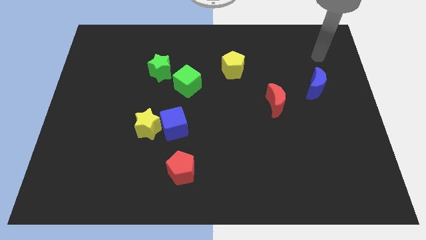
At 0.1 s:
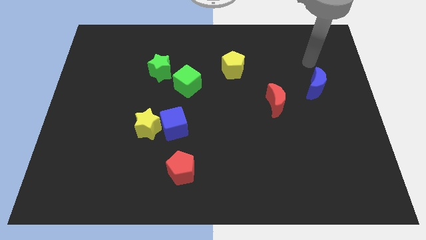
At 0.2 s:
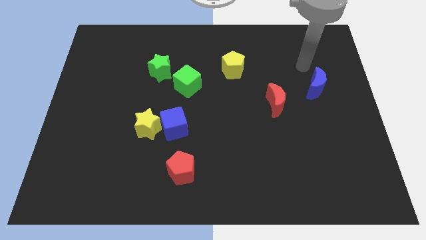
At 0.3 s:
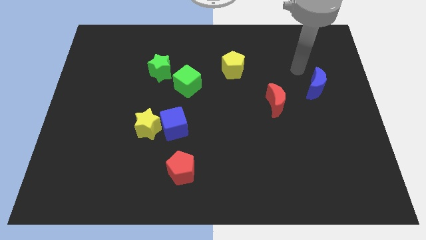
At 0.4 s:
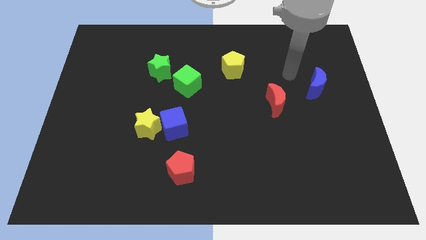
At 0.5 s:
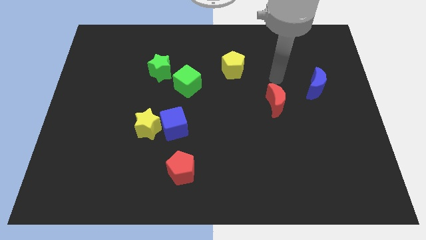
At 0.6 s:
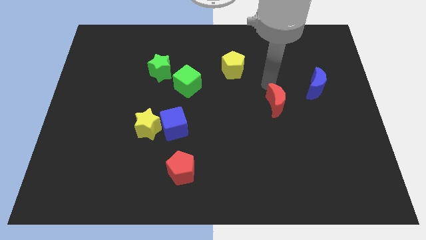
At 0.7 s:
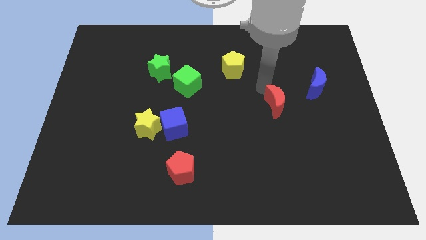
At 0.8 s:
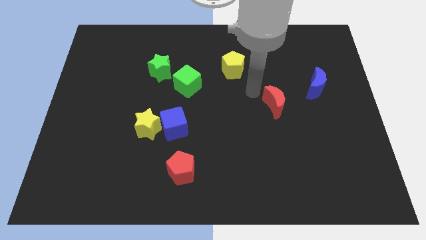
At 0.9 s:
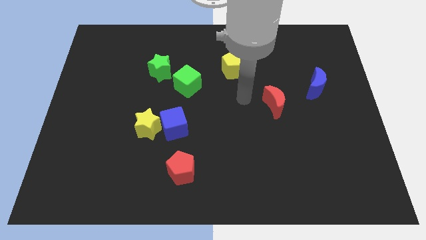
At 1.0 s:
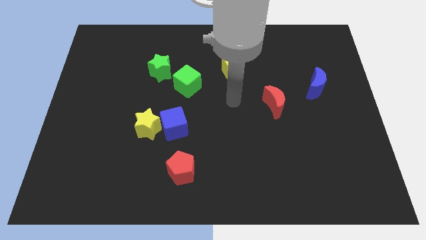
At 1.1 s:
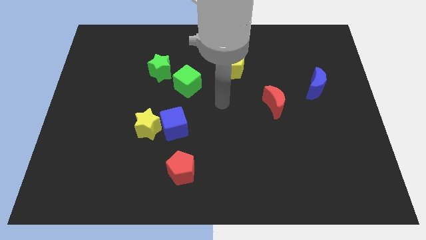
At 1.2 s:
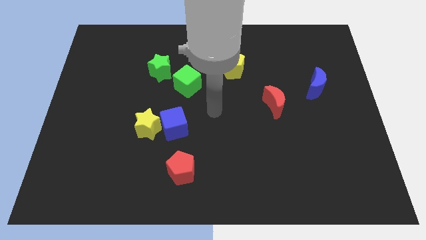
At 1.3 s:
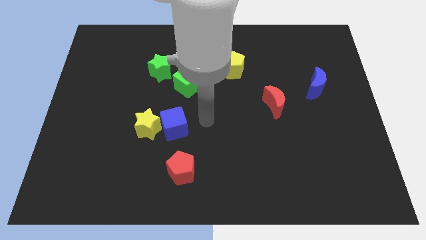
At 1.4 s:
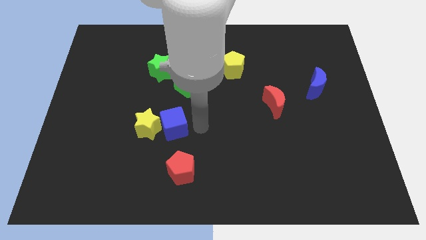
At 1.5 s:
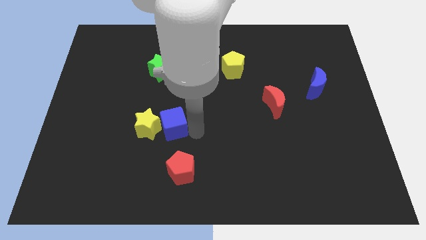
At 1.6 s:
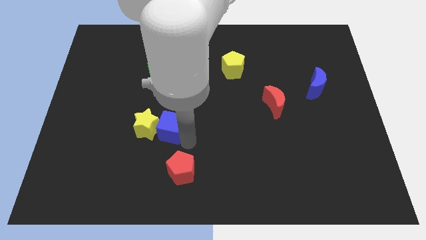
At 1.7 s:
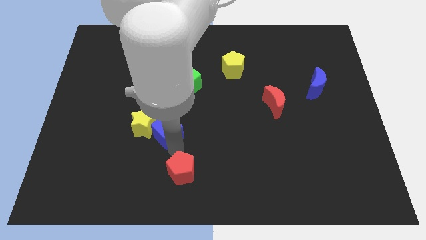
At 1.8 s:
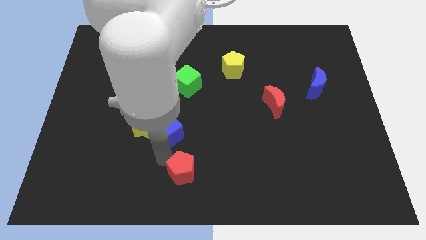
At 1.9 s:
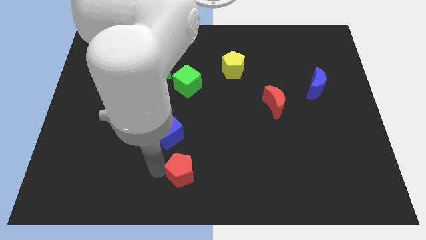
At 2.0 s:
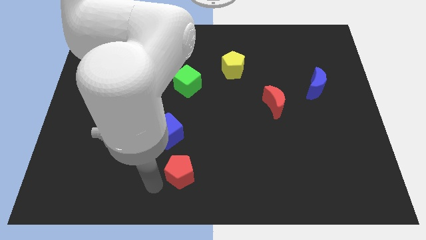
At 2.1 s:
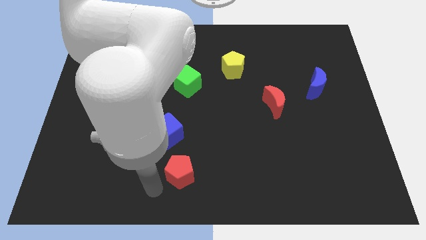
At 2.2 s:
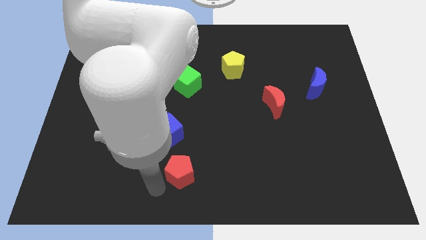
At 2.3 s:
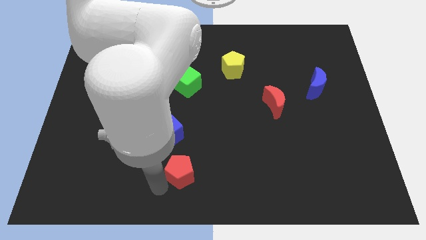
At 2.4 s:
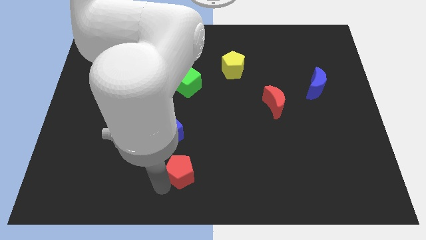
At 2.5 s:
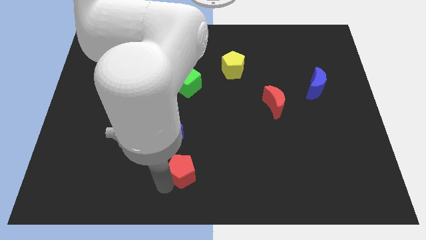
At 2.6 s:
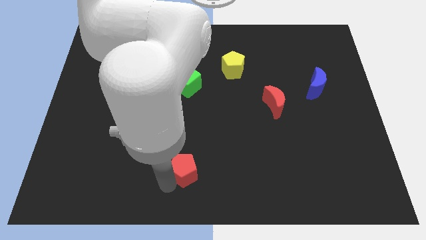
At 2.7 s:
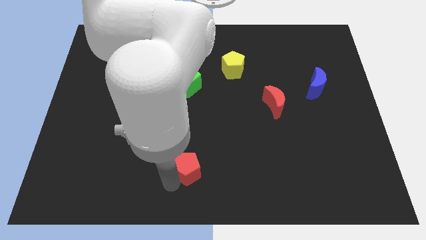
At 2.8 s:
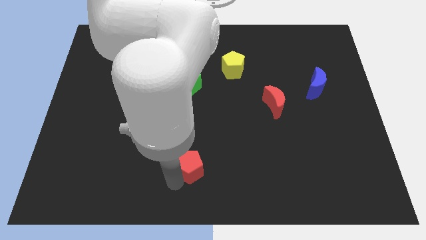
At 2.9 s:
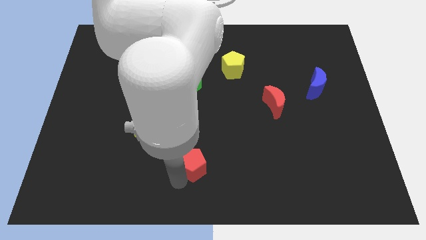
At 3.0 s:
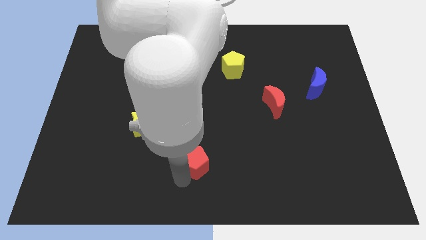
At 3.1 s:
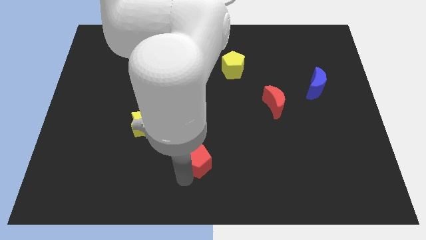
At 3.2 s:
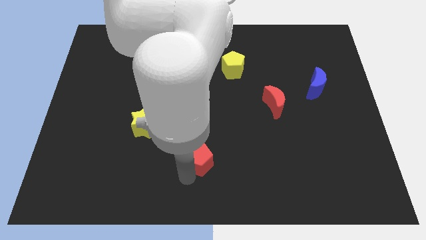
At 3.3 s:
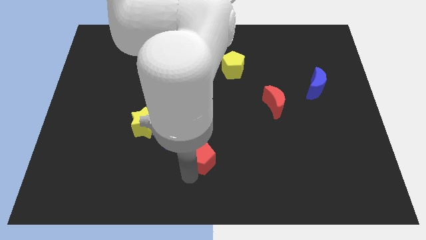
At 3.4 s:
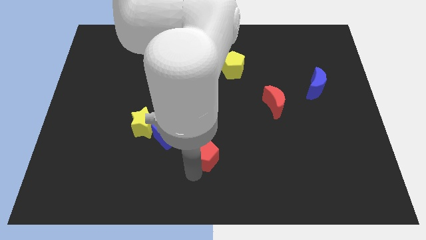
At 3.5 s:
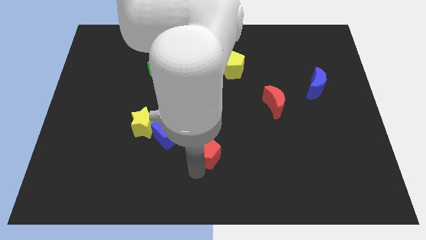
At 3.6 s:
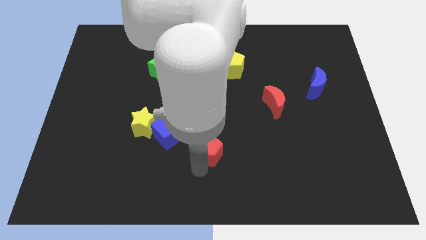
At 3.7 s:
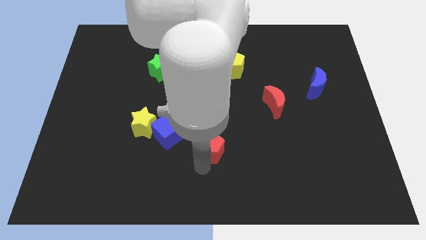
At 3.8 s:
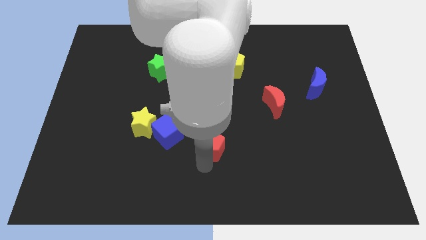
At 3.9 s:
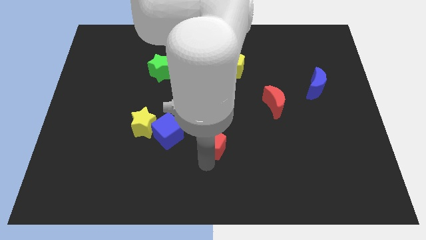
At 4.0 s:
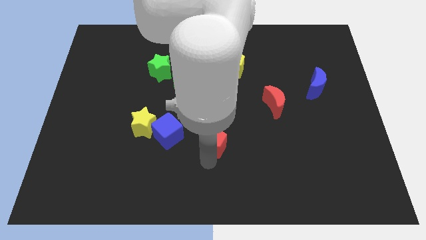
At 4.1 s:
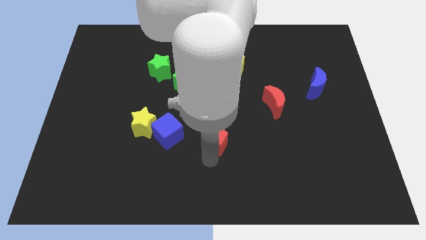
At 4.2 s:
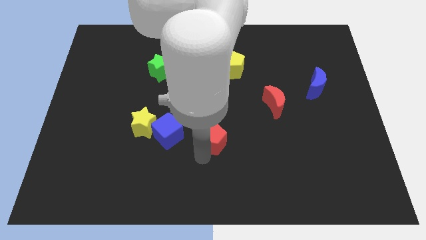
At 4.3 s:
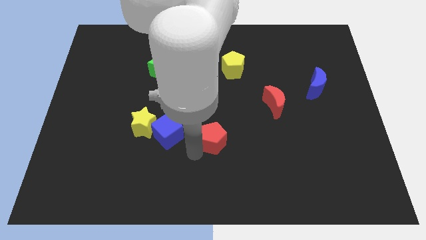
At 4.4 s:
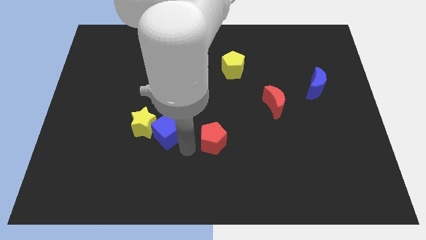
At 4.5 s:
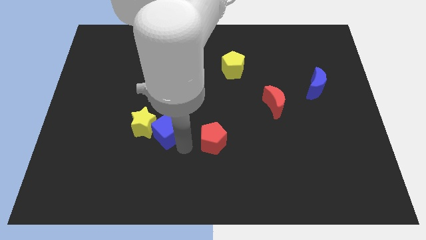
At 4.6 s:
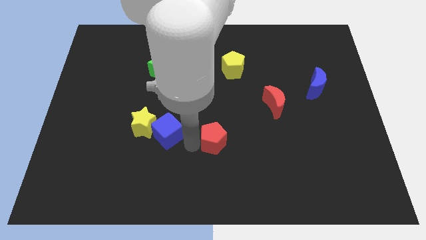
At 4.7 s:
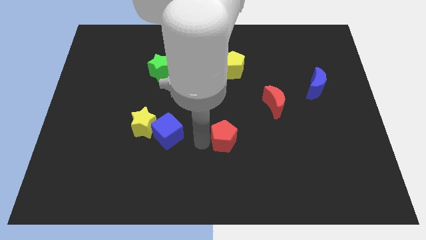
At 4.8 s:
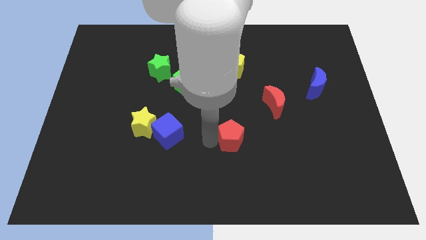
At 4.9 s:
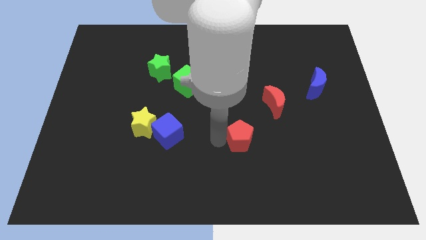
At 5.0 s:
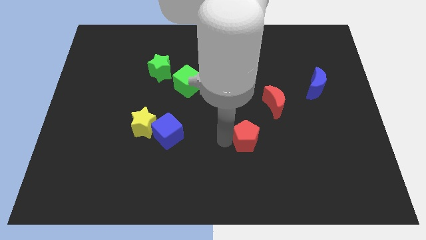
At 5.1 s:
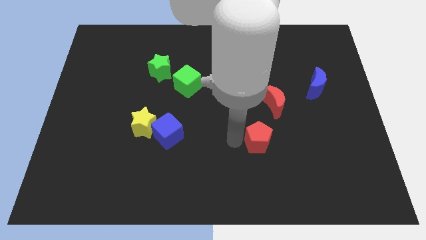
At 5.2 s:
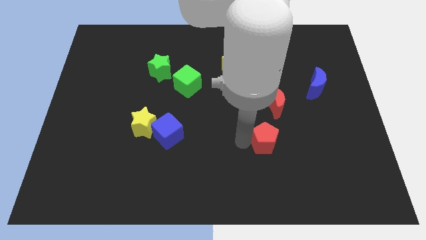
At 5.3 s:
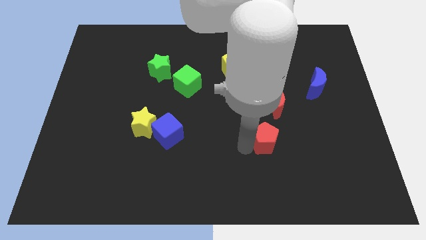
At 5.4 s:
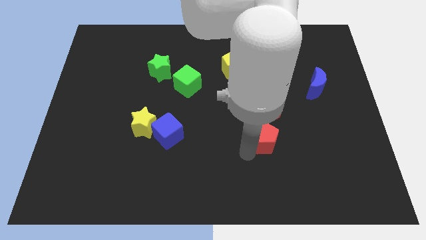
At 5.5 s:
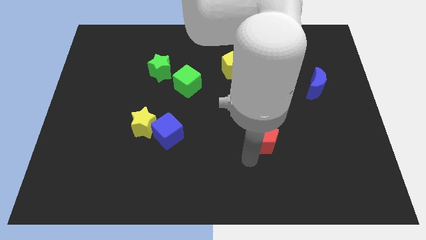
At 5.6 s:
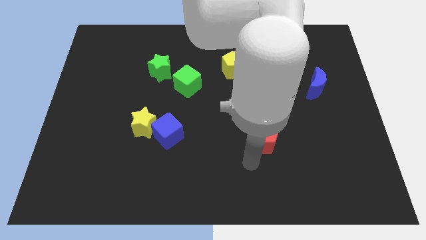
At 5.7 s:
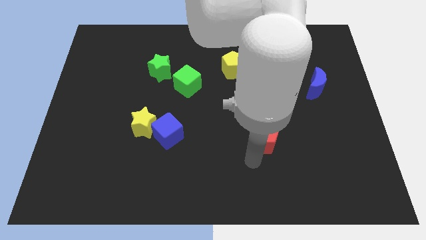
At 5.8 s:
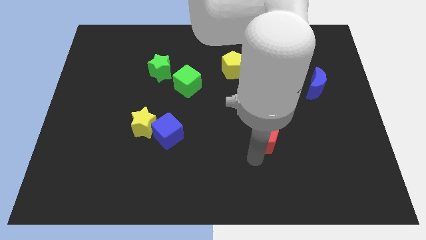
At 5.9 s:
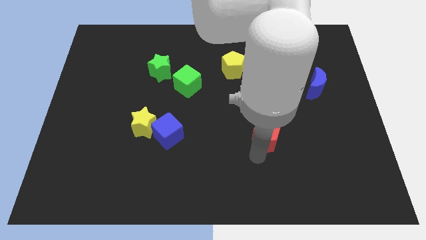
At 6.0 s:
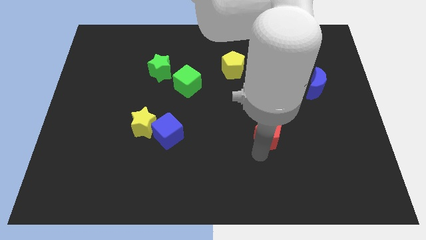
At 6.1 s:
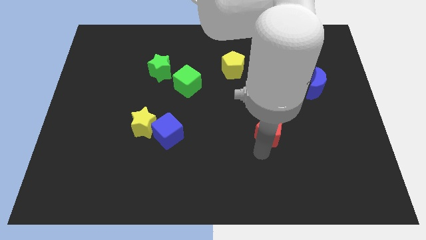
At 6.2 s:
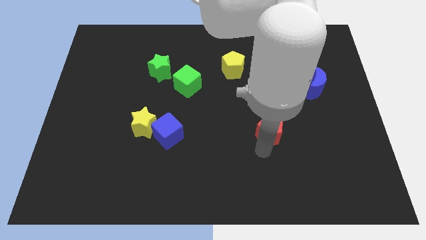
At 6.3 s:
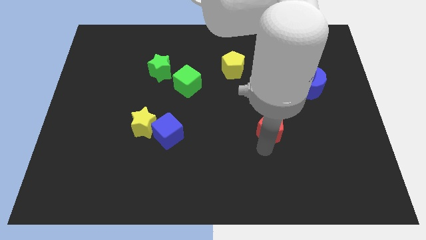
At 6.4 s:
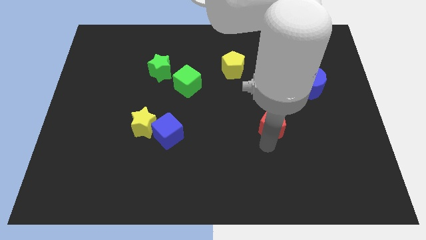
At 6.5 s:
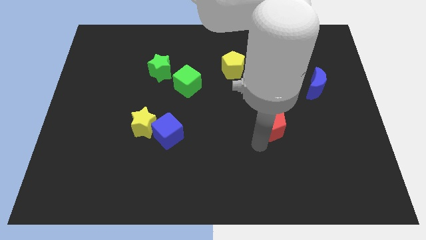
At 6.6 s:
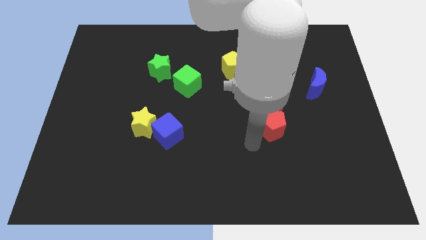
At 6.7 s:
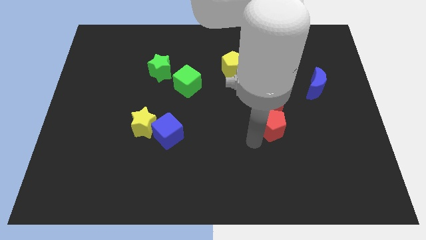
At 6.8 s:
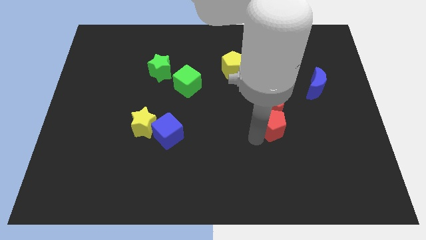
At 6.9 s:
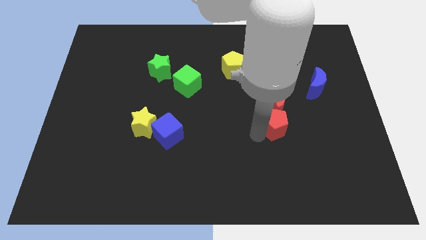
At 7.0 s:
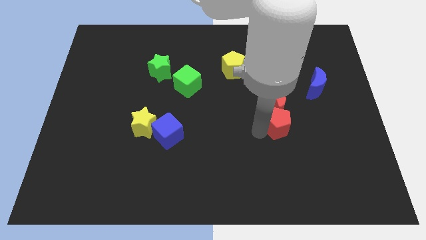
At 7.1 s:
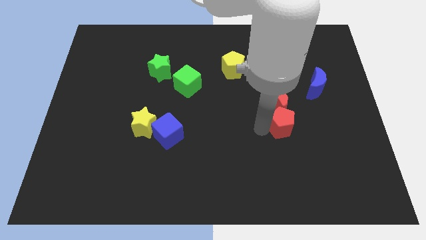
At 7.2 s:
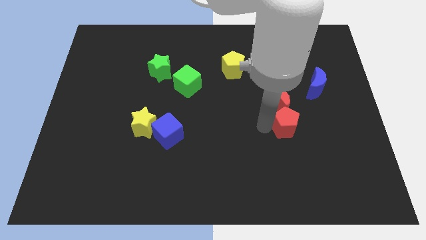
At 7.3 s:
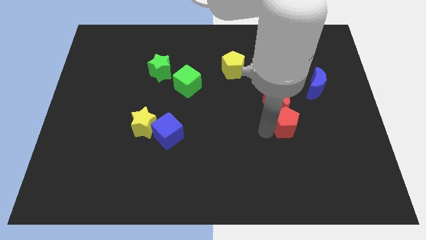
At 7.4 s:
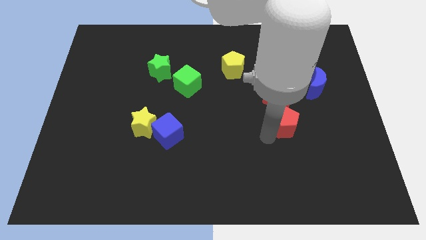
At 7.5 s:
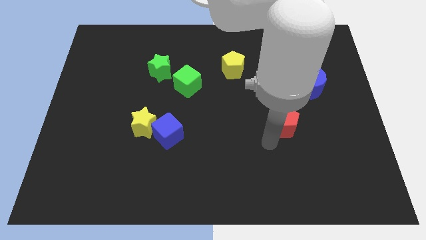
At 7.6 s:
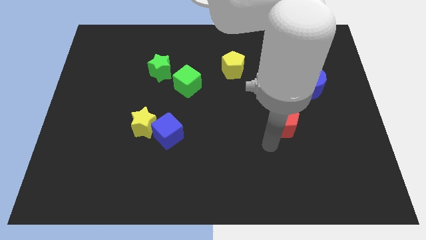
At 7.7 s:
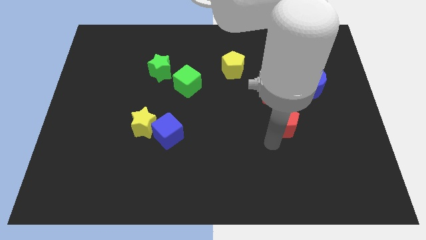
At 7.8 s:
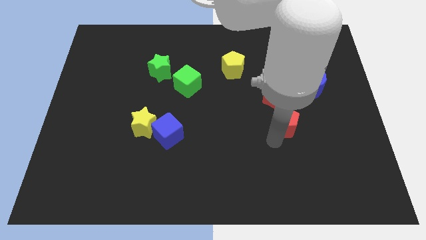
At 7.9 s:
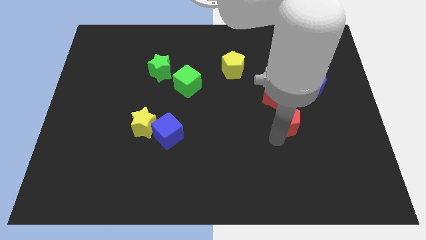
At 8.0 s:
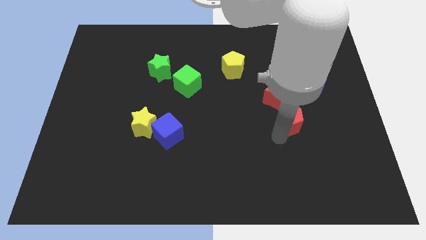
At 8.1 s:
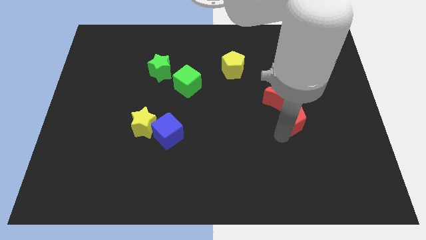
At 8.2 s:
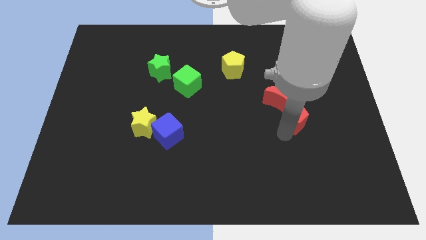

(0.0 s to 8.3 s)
move the red pentagon to the bottom left side of the blue moon
